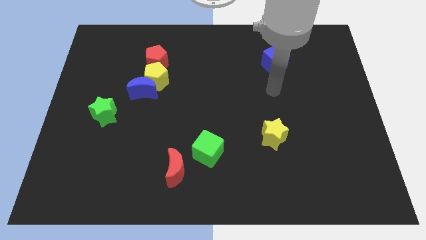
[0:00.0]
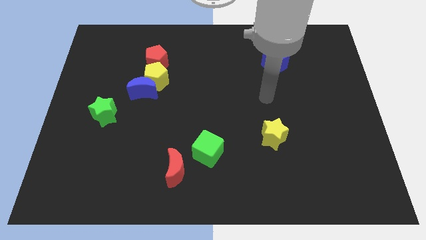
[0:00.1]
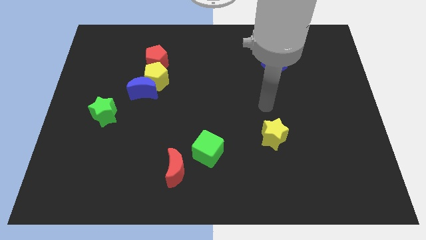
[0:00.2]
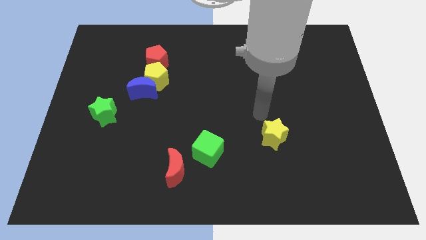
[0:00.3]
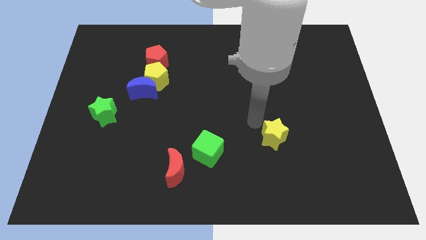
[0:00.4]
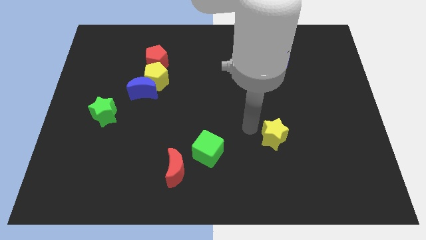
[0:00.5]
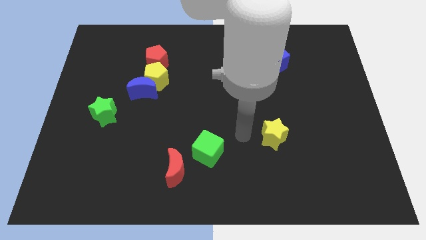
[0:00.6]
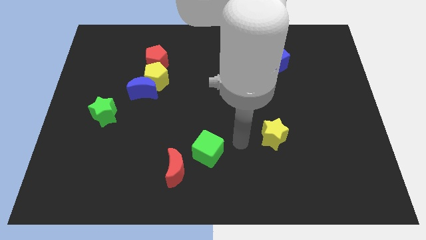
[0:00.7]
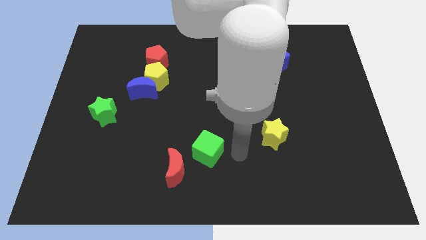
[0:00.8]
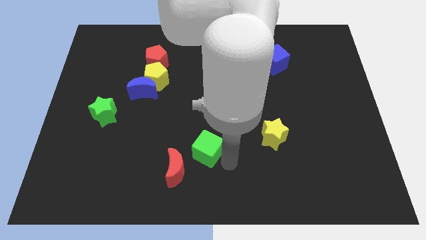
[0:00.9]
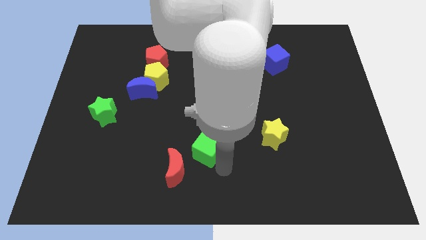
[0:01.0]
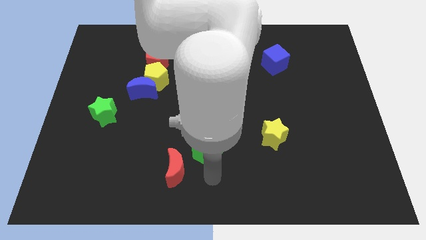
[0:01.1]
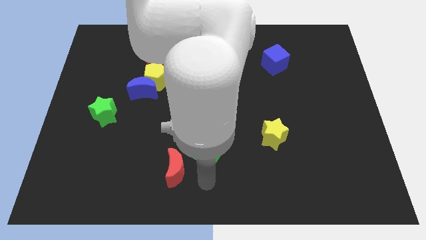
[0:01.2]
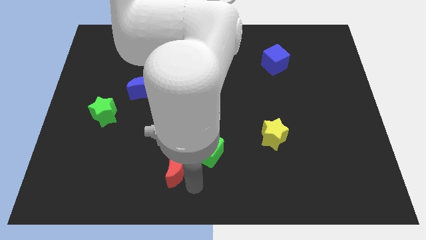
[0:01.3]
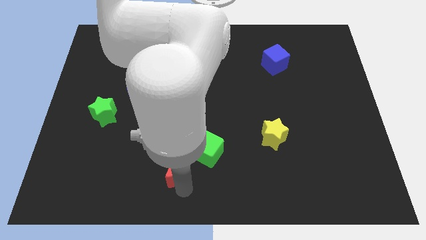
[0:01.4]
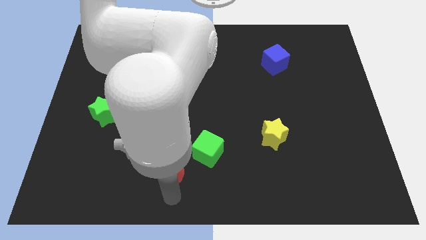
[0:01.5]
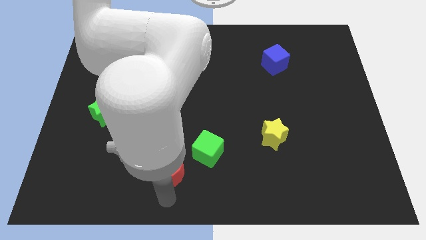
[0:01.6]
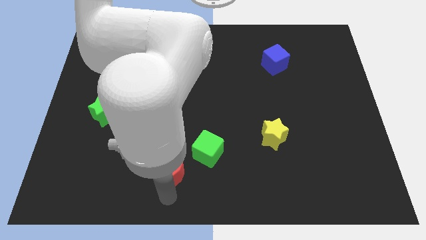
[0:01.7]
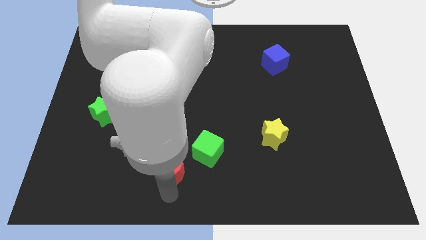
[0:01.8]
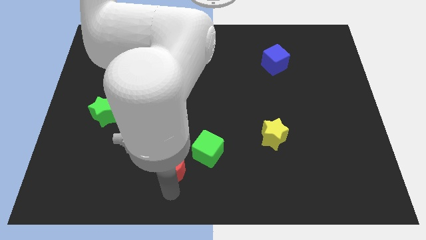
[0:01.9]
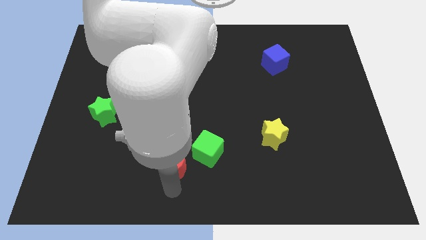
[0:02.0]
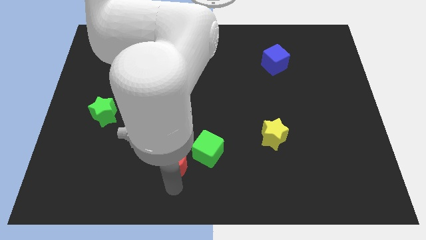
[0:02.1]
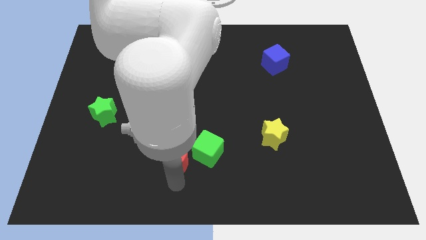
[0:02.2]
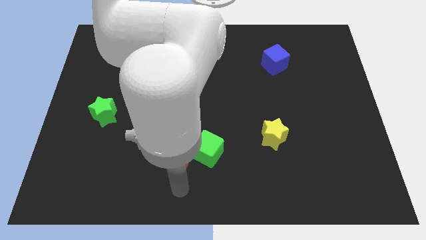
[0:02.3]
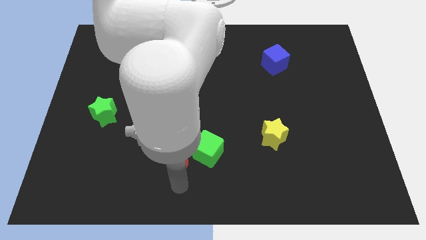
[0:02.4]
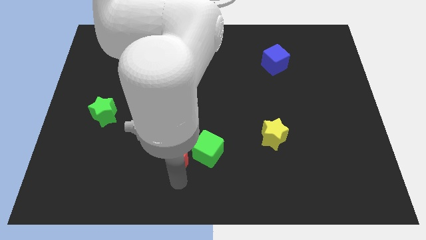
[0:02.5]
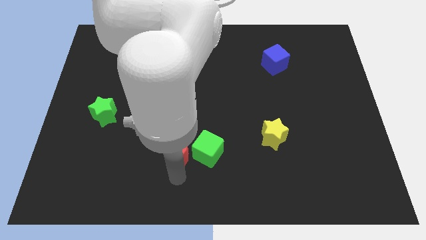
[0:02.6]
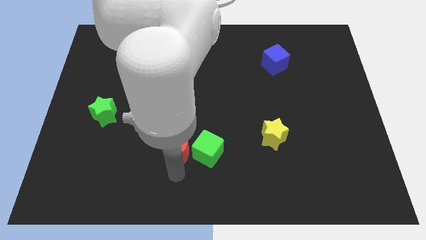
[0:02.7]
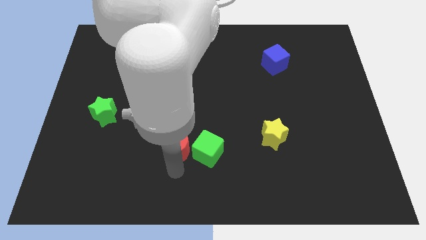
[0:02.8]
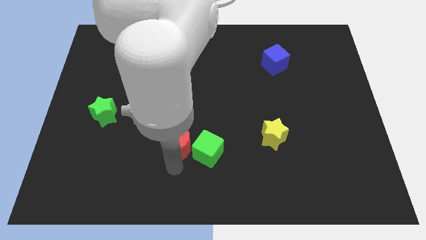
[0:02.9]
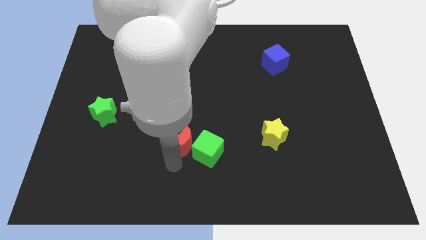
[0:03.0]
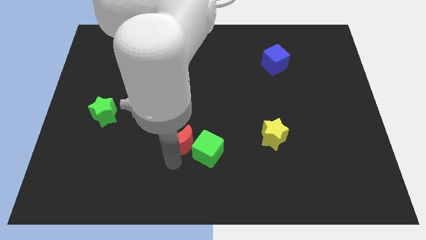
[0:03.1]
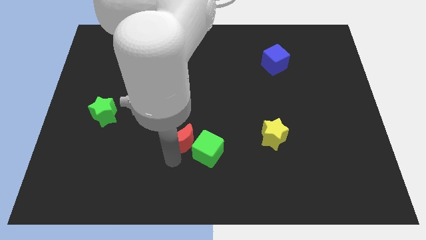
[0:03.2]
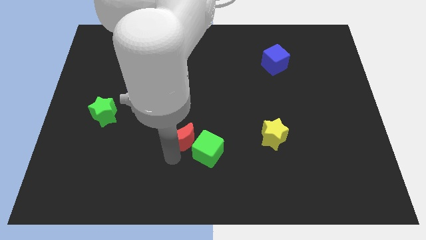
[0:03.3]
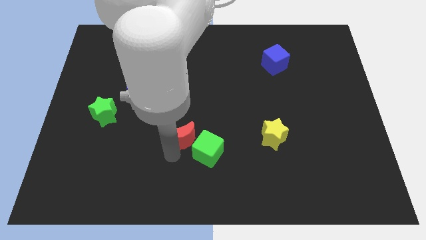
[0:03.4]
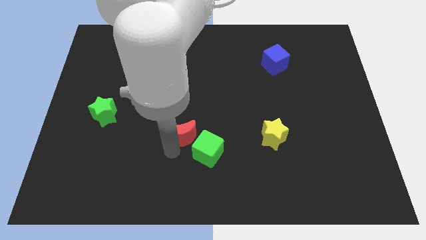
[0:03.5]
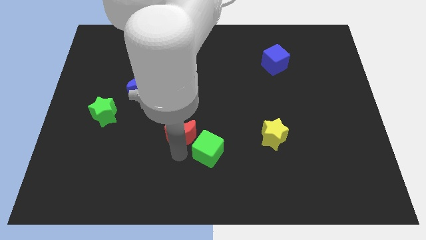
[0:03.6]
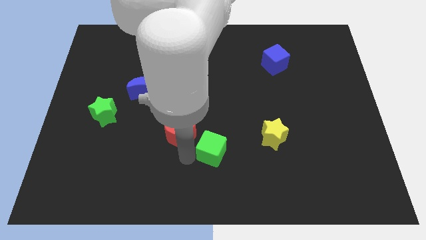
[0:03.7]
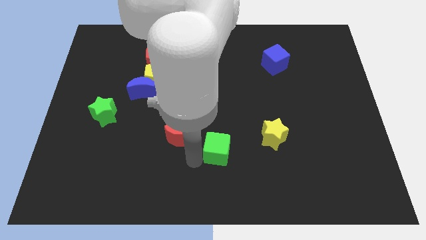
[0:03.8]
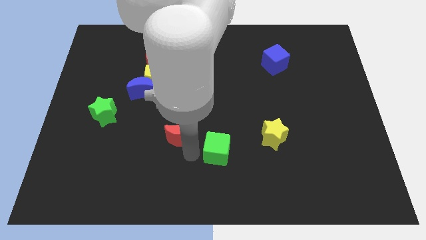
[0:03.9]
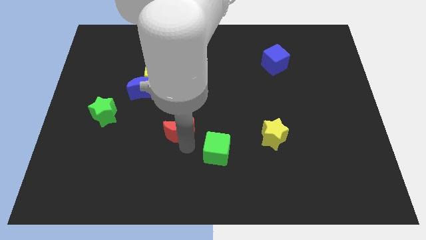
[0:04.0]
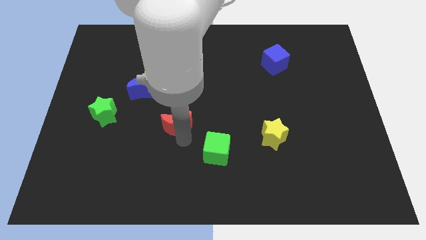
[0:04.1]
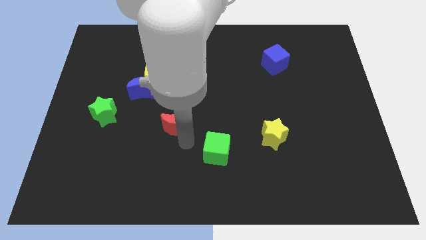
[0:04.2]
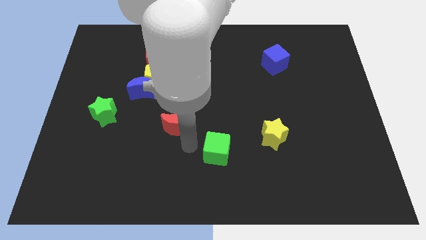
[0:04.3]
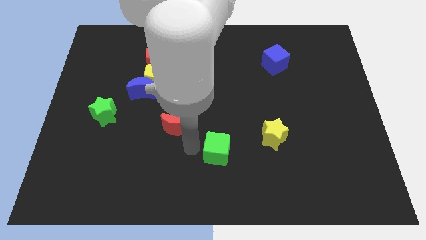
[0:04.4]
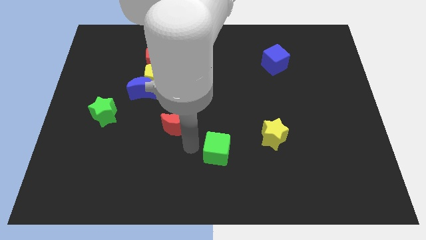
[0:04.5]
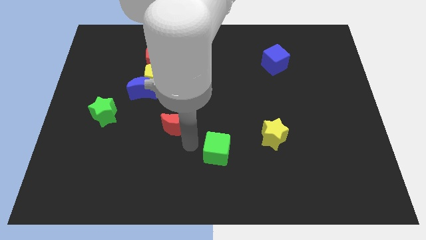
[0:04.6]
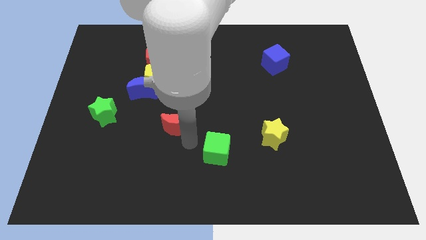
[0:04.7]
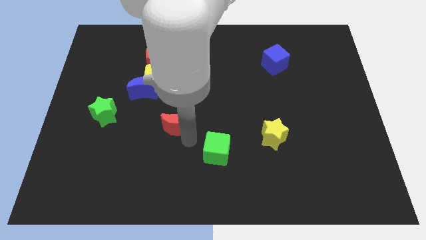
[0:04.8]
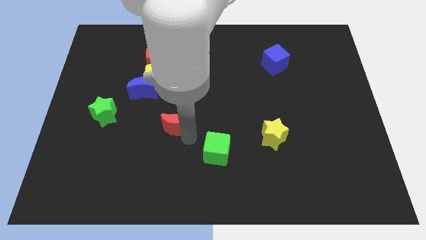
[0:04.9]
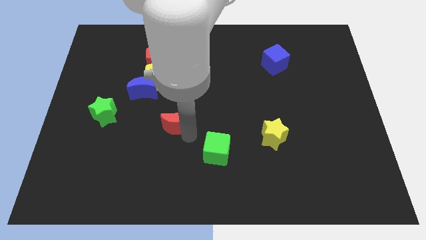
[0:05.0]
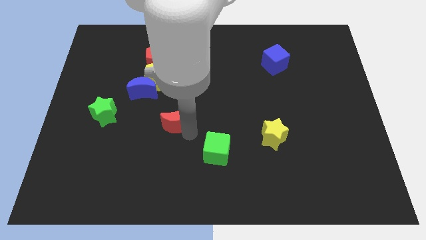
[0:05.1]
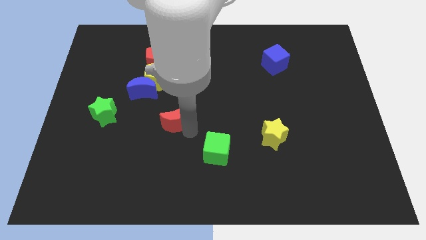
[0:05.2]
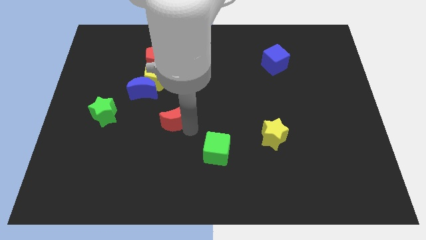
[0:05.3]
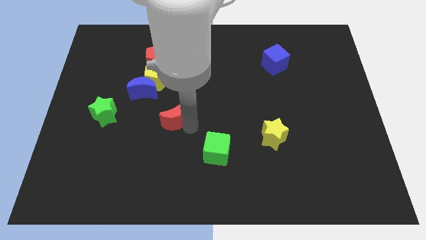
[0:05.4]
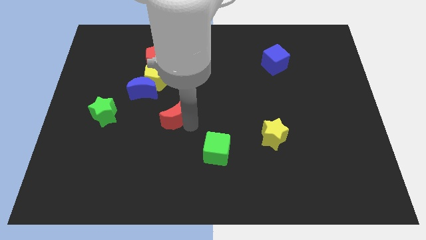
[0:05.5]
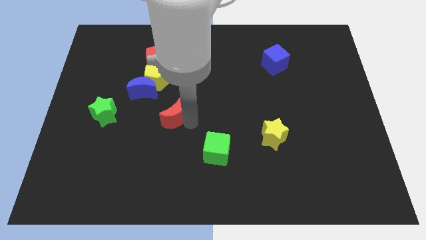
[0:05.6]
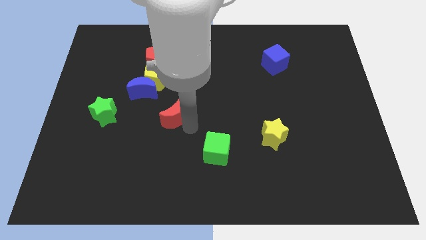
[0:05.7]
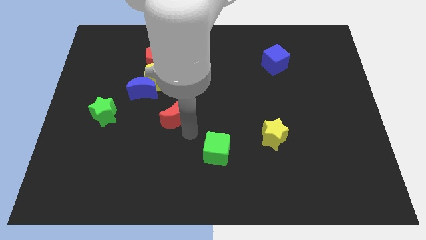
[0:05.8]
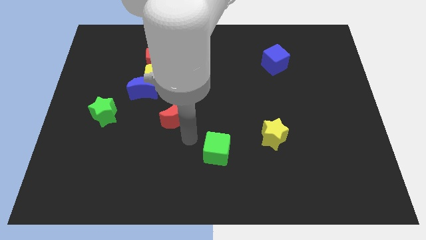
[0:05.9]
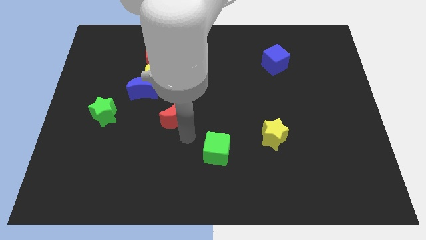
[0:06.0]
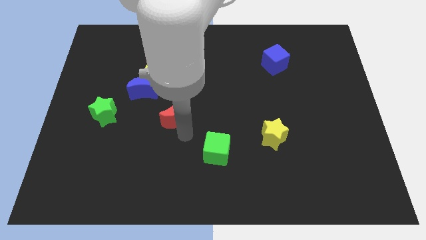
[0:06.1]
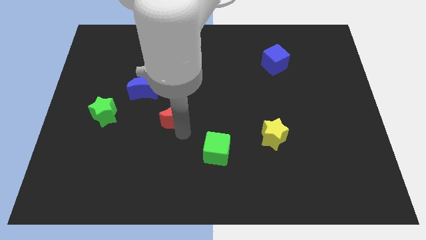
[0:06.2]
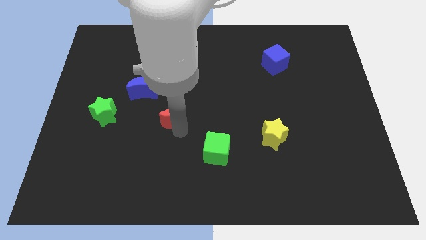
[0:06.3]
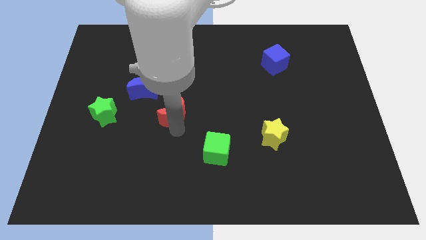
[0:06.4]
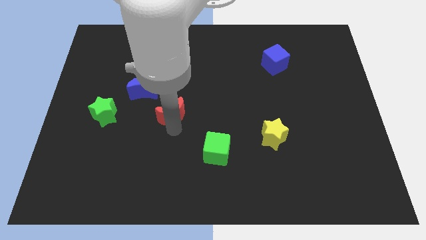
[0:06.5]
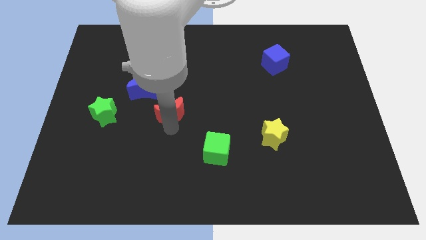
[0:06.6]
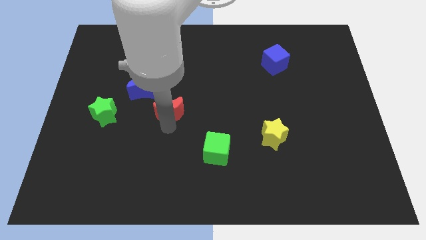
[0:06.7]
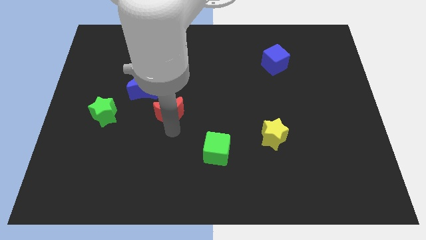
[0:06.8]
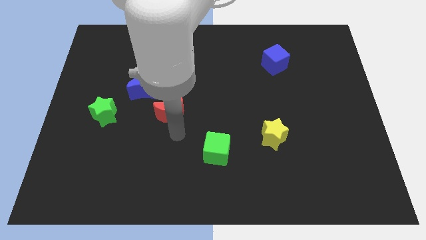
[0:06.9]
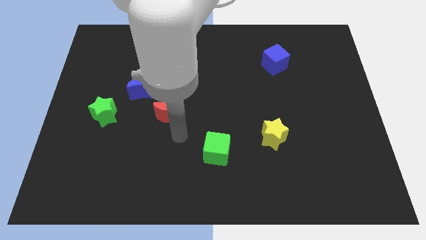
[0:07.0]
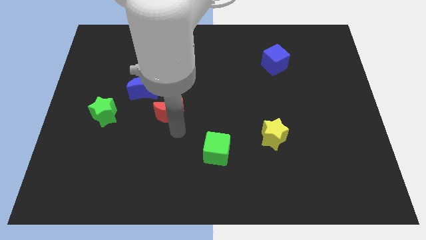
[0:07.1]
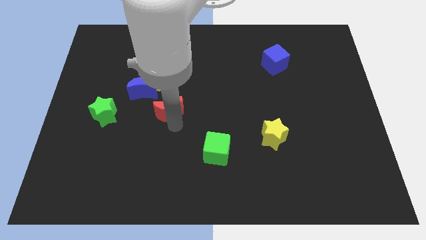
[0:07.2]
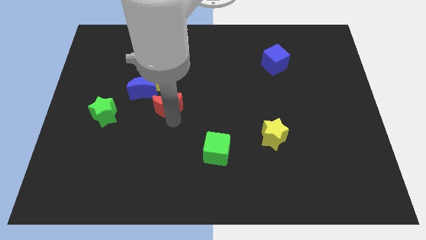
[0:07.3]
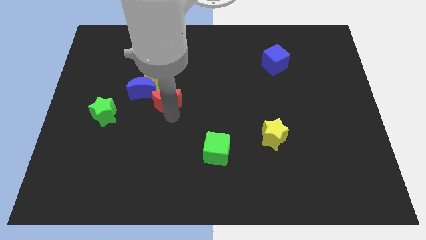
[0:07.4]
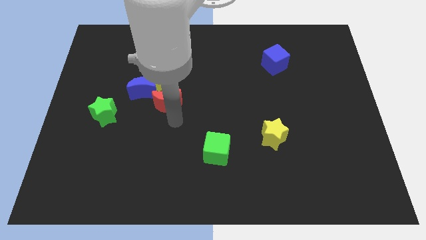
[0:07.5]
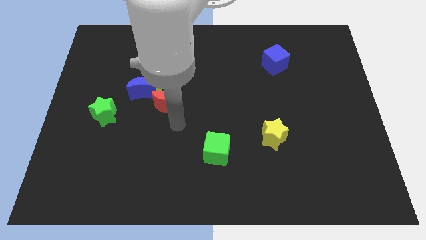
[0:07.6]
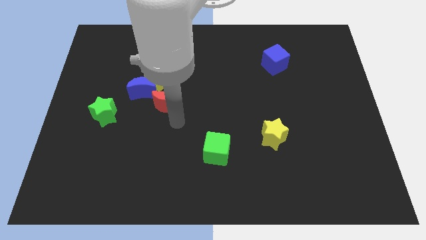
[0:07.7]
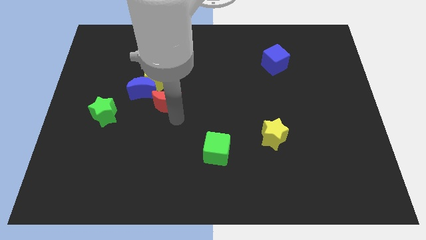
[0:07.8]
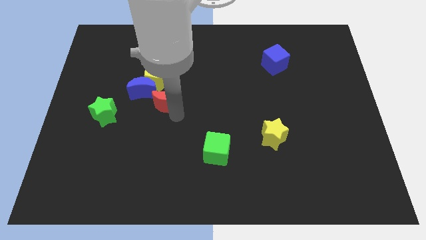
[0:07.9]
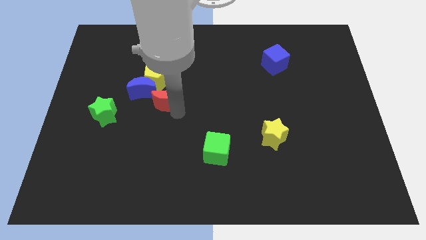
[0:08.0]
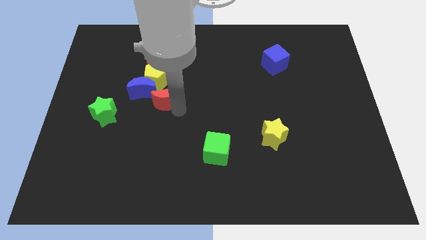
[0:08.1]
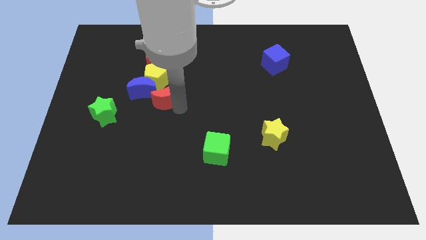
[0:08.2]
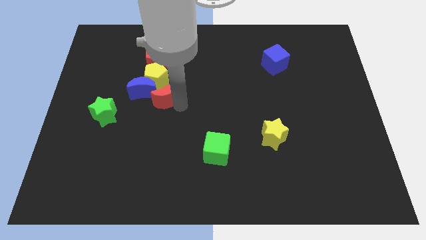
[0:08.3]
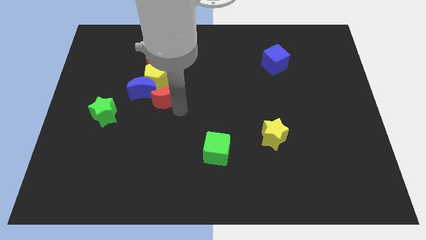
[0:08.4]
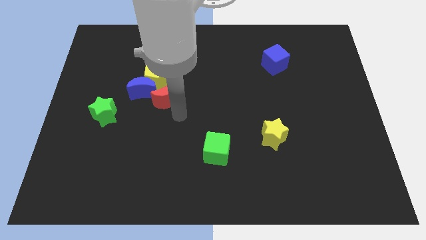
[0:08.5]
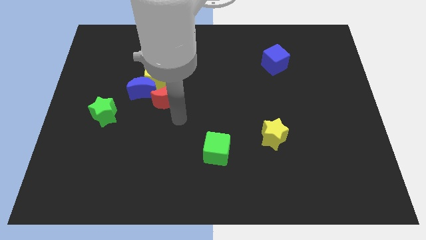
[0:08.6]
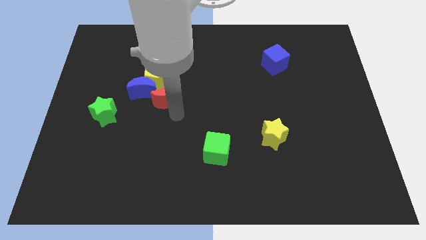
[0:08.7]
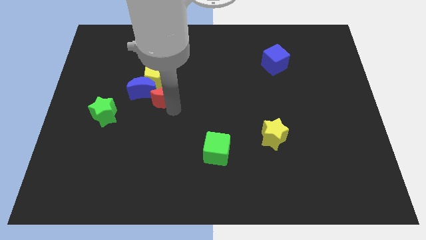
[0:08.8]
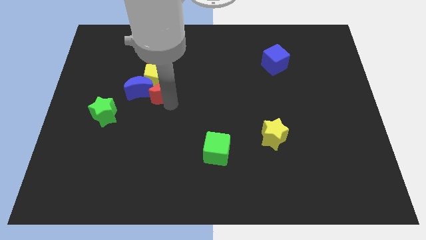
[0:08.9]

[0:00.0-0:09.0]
push the red moon next to the yellow pentagon
